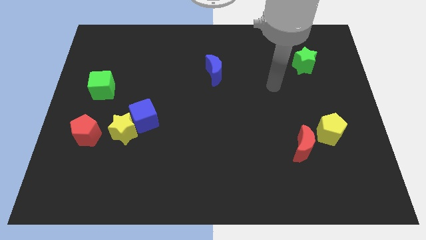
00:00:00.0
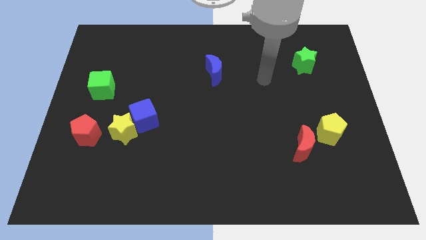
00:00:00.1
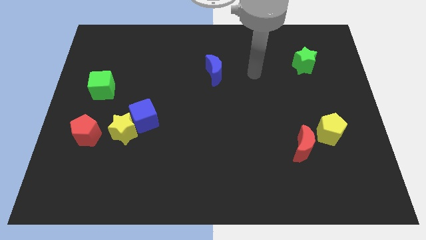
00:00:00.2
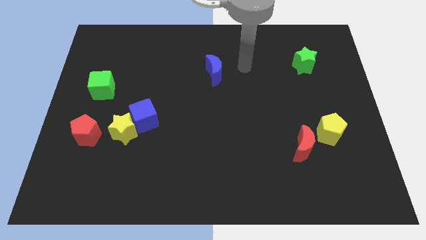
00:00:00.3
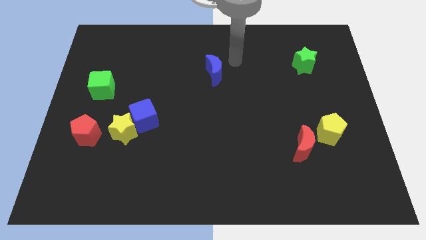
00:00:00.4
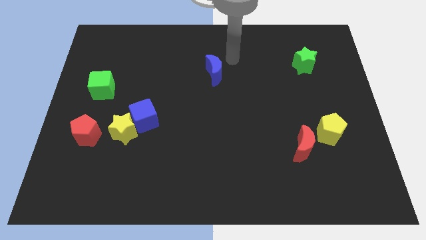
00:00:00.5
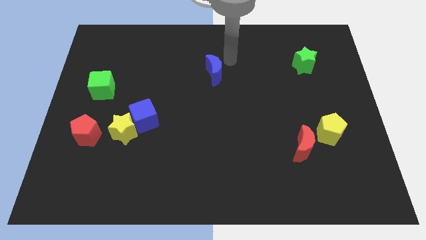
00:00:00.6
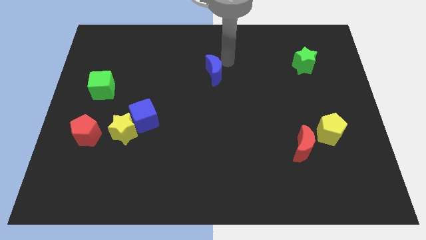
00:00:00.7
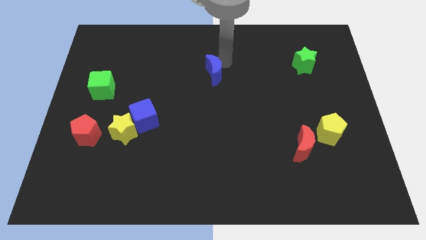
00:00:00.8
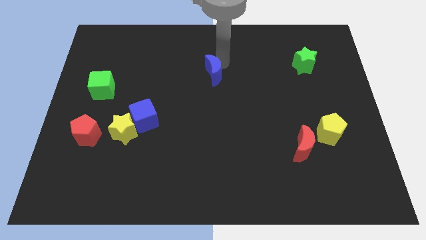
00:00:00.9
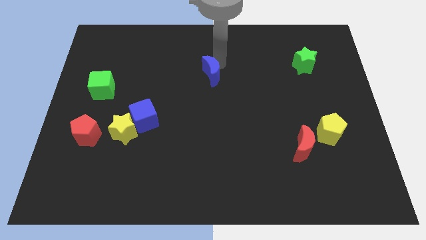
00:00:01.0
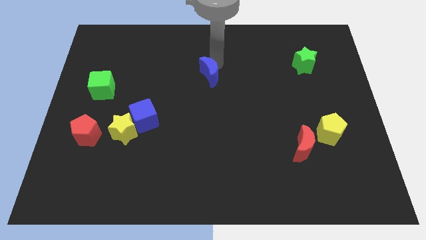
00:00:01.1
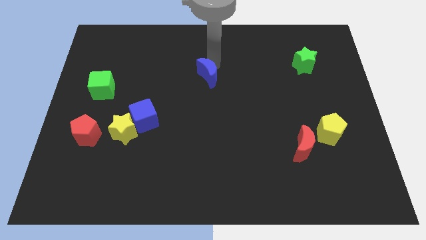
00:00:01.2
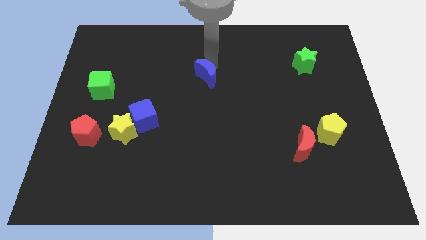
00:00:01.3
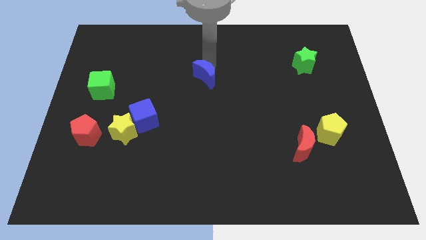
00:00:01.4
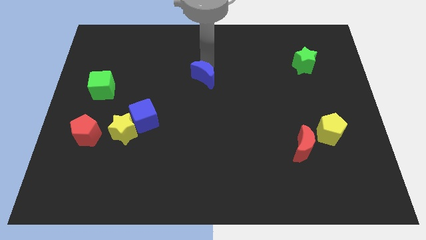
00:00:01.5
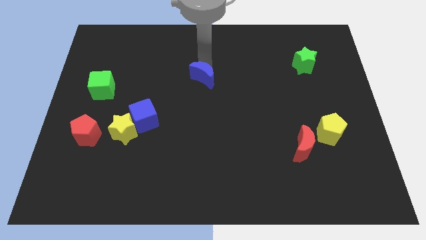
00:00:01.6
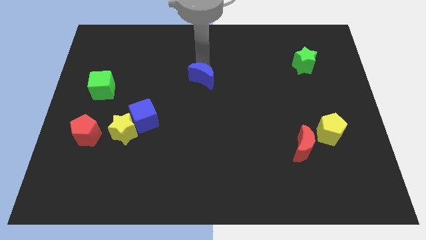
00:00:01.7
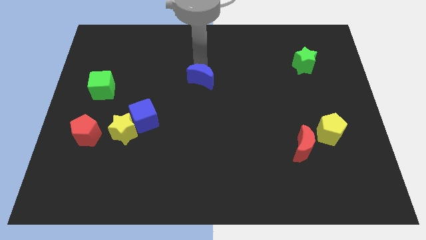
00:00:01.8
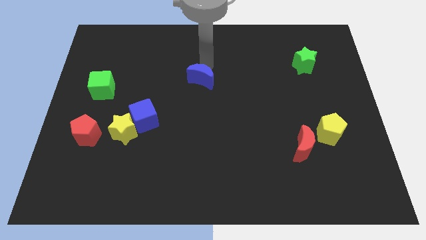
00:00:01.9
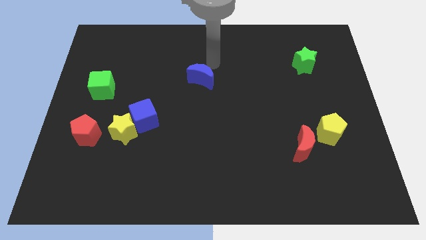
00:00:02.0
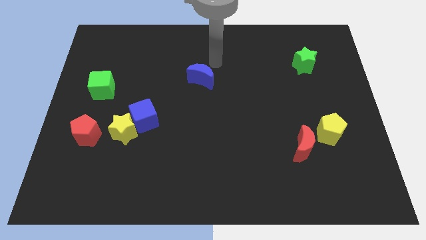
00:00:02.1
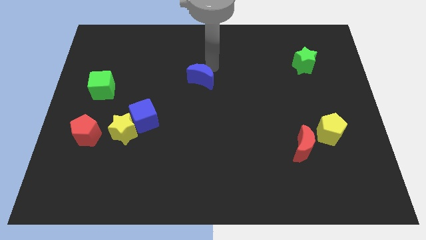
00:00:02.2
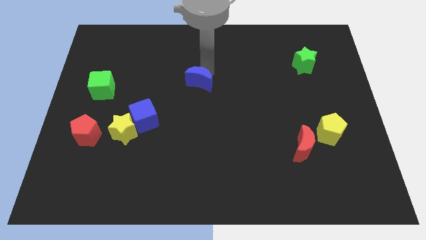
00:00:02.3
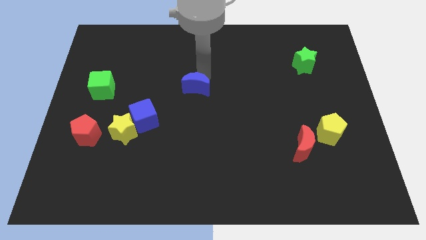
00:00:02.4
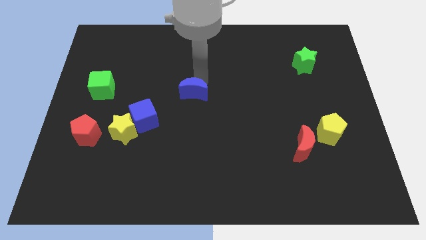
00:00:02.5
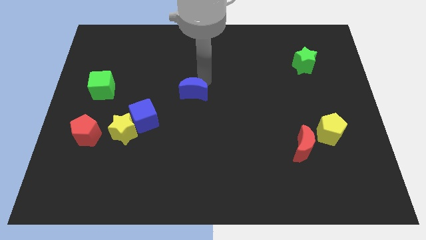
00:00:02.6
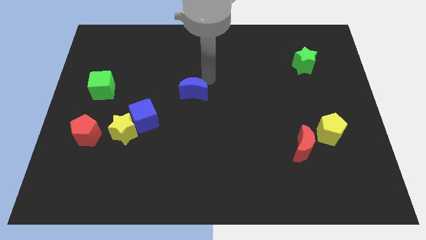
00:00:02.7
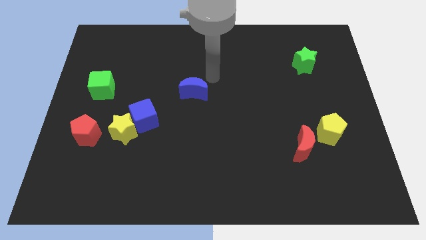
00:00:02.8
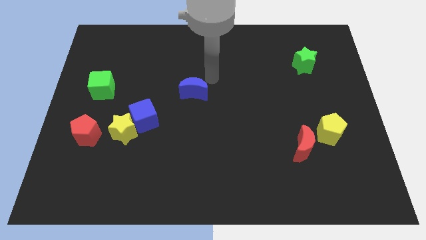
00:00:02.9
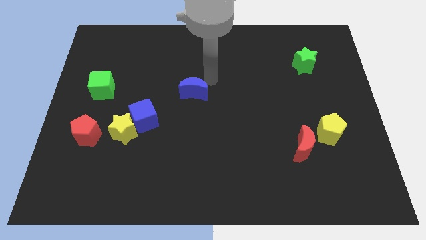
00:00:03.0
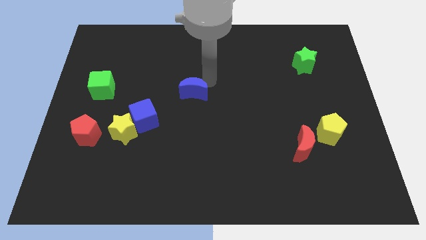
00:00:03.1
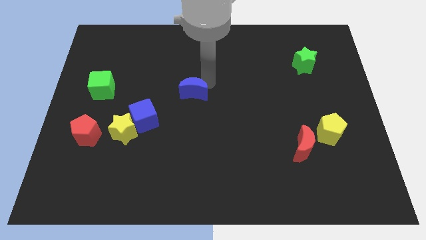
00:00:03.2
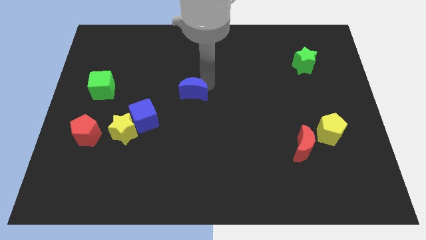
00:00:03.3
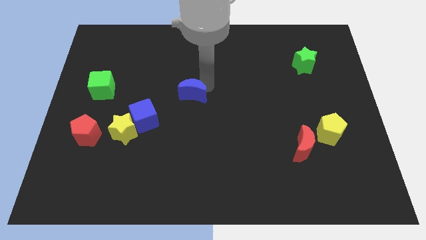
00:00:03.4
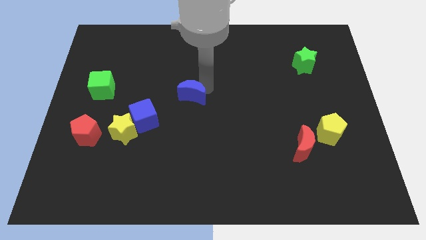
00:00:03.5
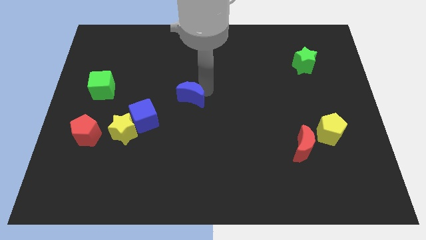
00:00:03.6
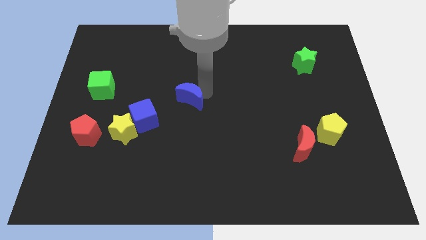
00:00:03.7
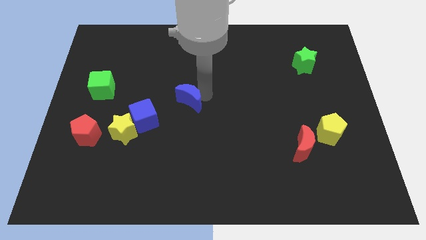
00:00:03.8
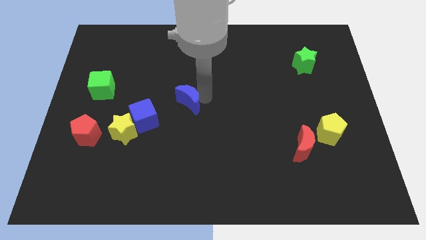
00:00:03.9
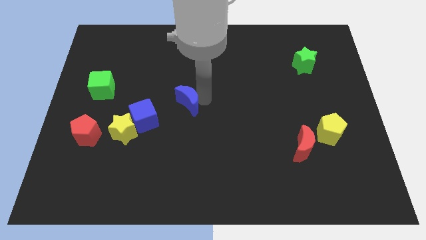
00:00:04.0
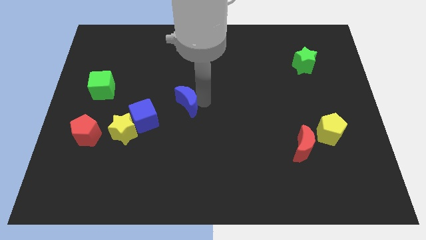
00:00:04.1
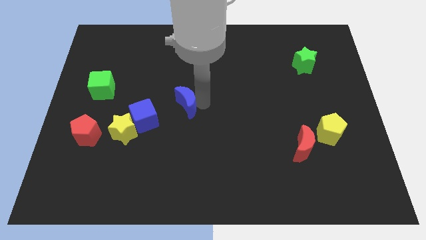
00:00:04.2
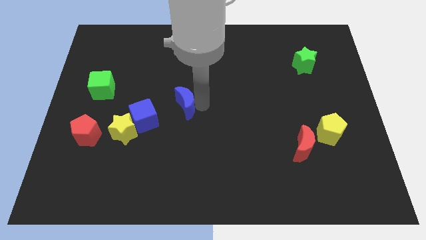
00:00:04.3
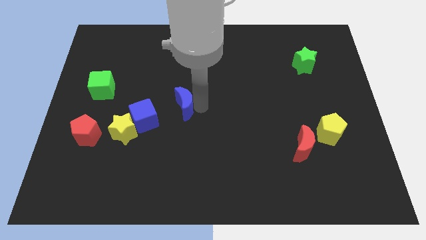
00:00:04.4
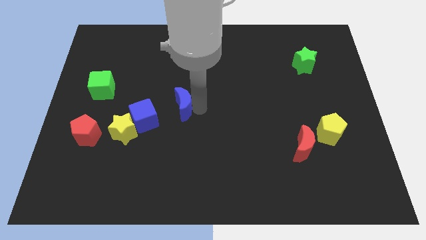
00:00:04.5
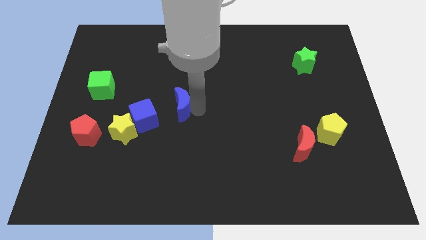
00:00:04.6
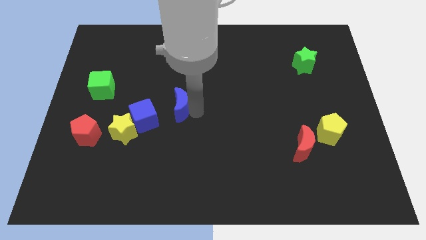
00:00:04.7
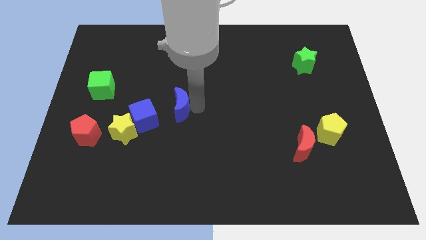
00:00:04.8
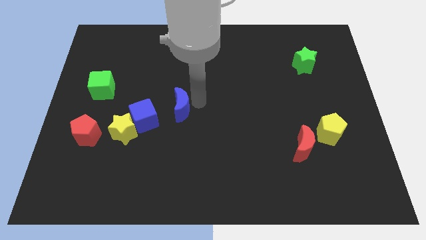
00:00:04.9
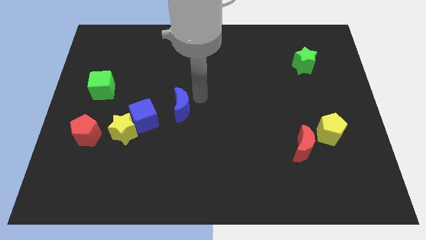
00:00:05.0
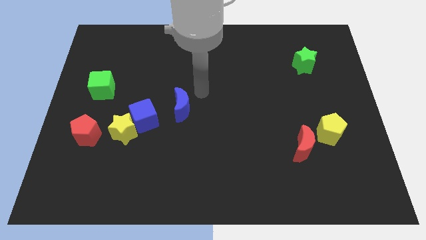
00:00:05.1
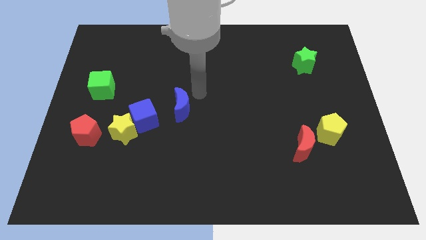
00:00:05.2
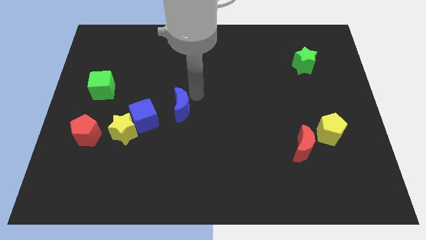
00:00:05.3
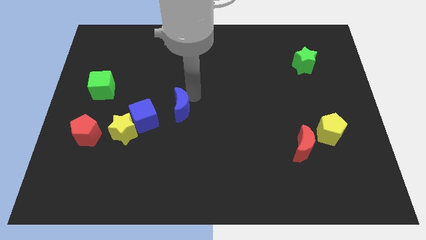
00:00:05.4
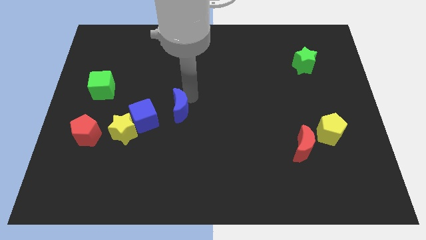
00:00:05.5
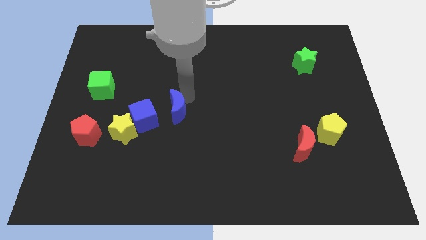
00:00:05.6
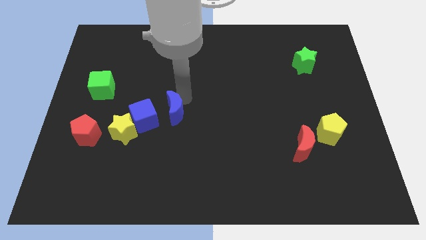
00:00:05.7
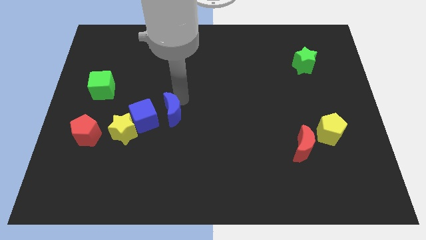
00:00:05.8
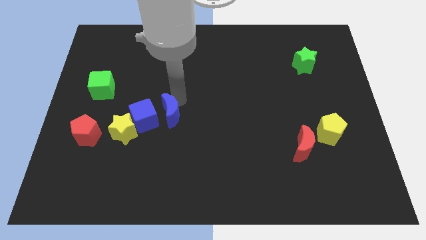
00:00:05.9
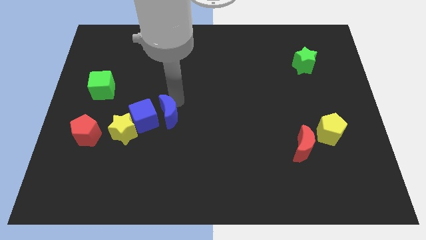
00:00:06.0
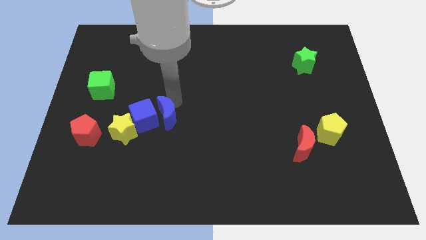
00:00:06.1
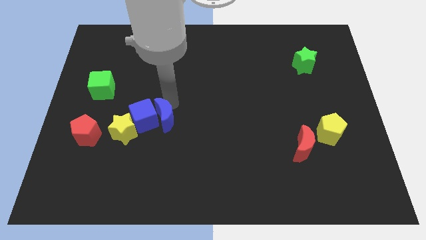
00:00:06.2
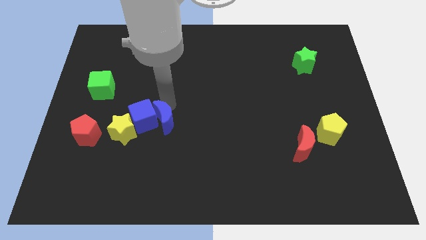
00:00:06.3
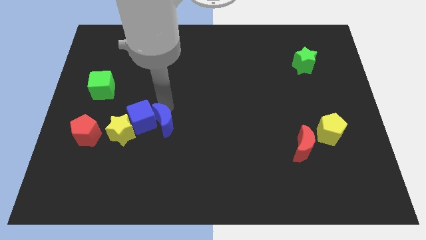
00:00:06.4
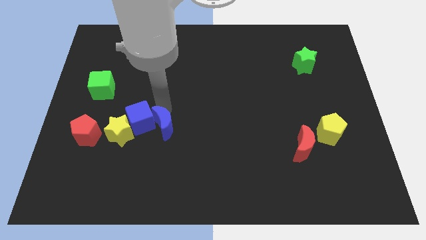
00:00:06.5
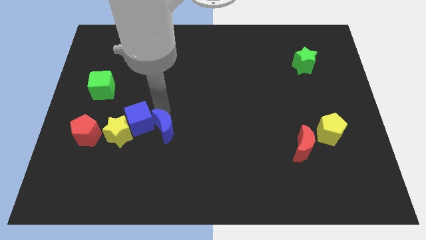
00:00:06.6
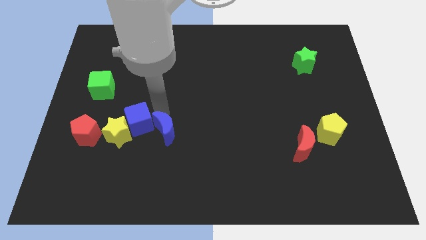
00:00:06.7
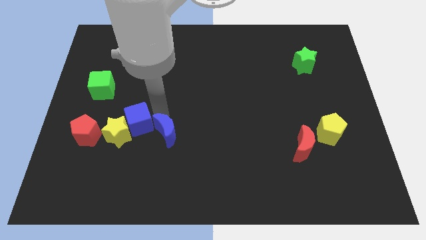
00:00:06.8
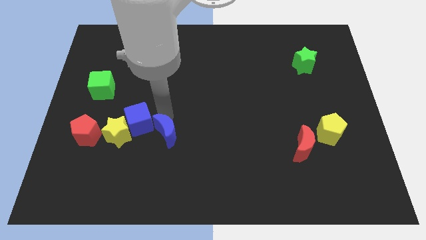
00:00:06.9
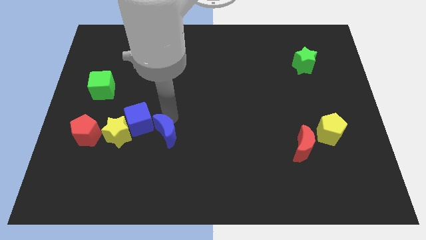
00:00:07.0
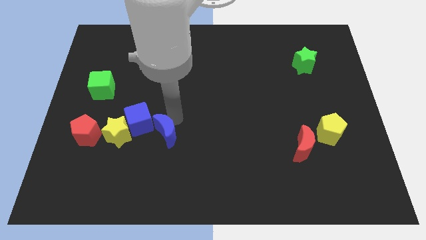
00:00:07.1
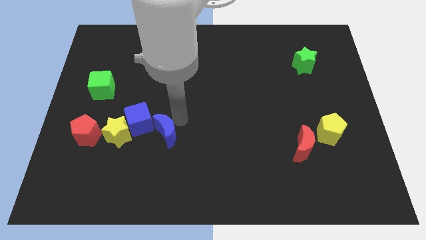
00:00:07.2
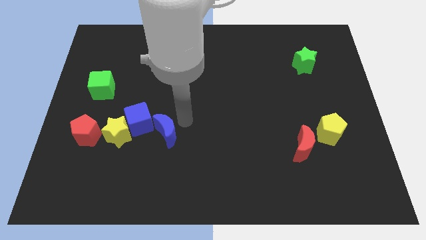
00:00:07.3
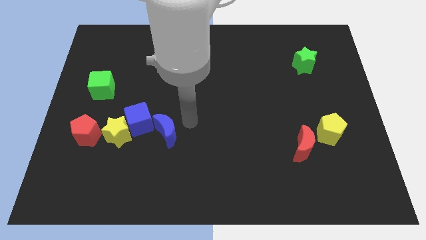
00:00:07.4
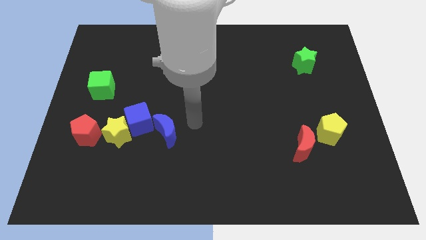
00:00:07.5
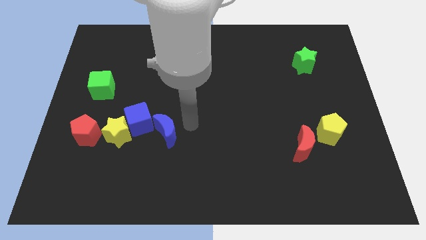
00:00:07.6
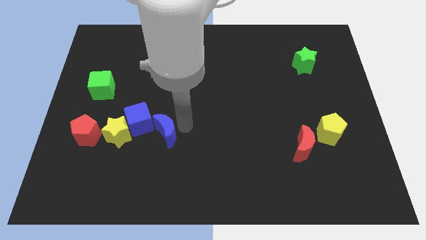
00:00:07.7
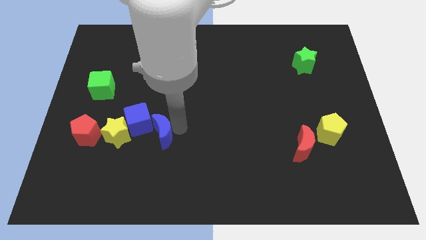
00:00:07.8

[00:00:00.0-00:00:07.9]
push the blue moon down and then to the left

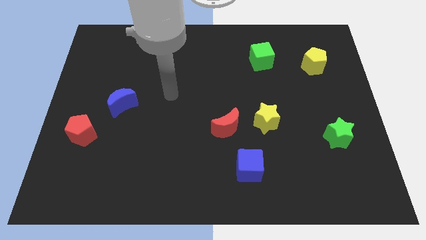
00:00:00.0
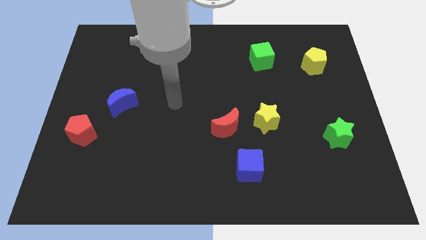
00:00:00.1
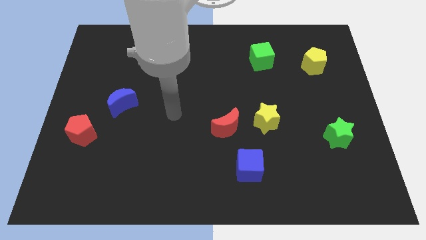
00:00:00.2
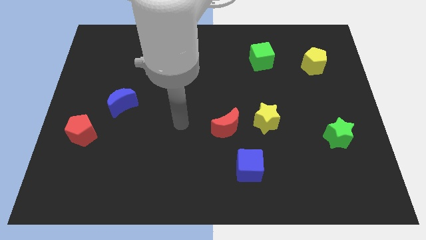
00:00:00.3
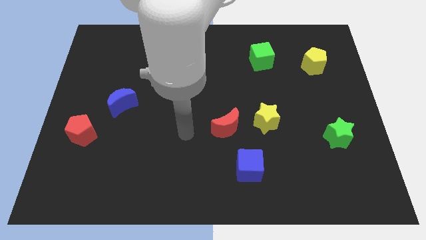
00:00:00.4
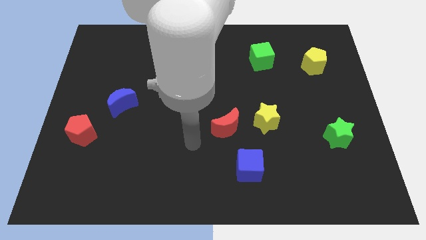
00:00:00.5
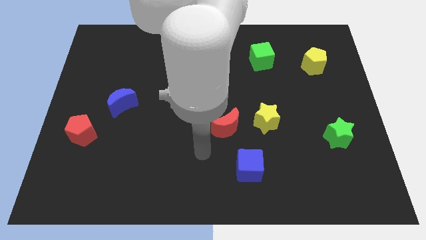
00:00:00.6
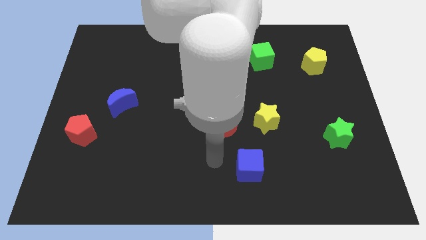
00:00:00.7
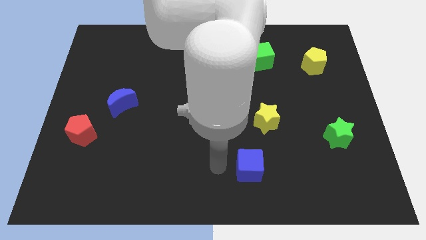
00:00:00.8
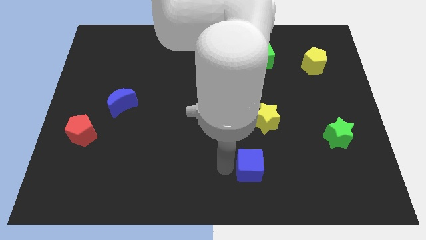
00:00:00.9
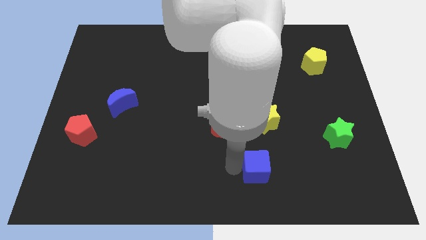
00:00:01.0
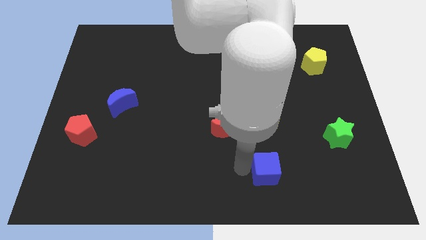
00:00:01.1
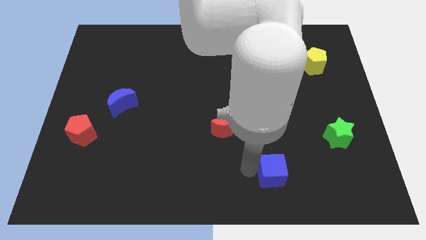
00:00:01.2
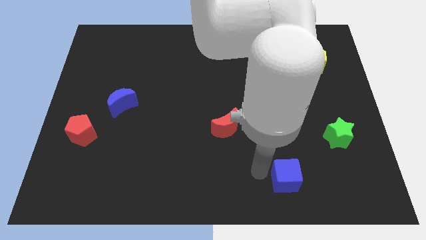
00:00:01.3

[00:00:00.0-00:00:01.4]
slightly slide the blue cube to the right
